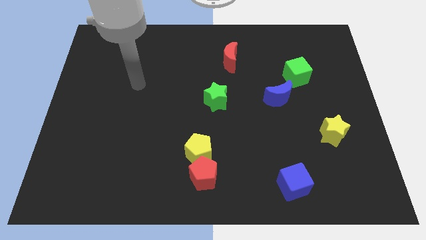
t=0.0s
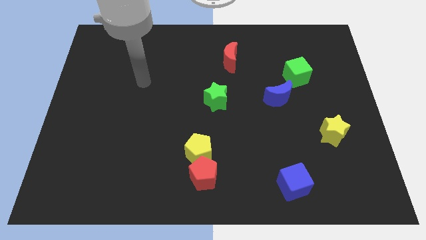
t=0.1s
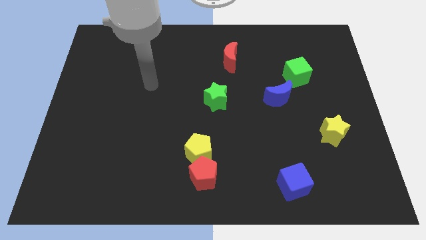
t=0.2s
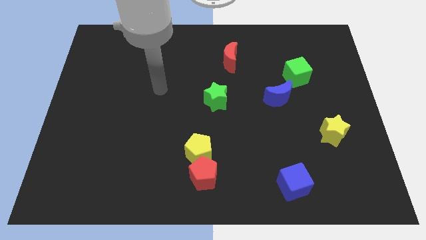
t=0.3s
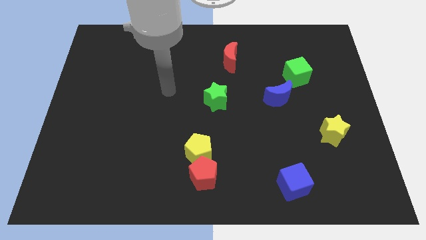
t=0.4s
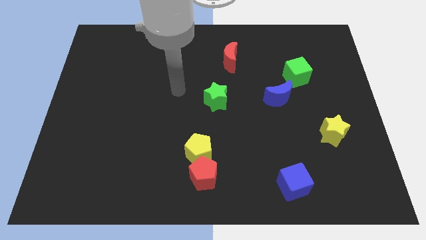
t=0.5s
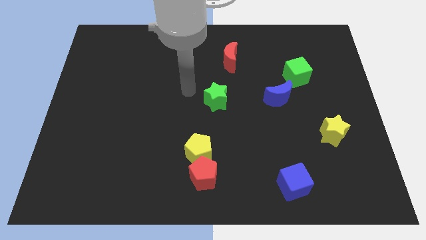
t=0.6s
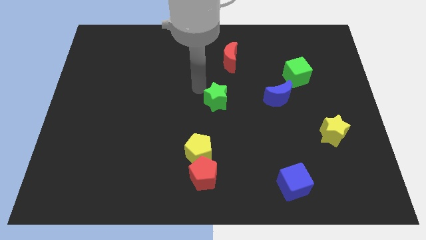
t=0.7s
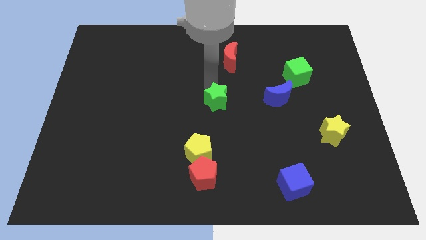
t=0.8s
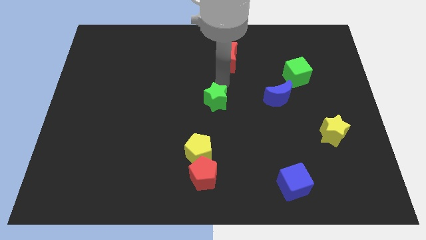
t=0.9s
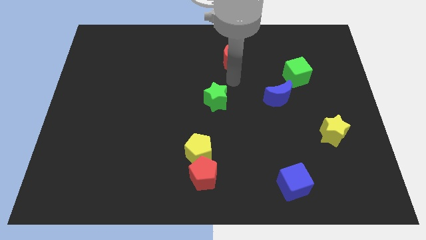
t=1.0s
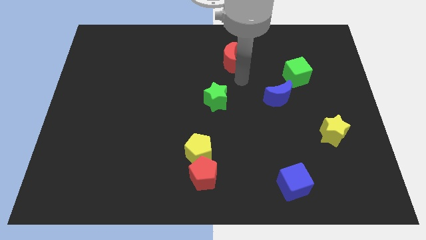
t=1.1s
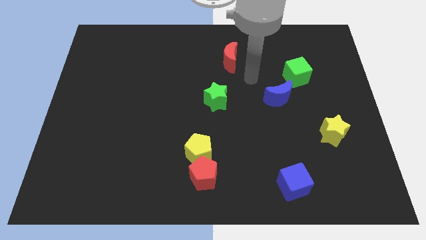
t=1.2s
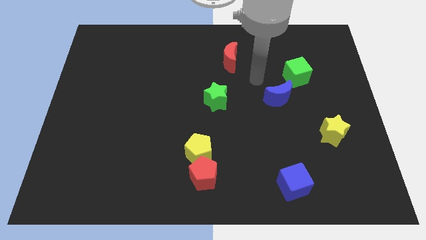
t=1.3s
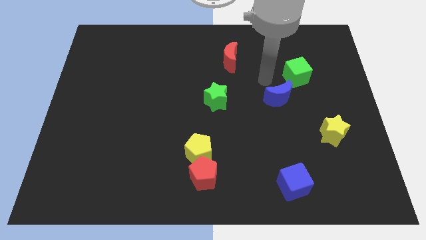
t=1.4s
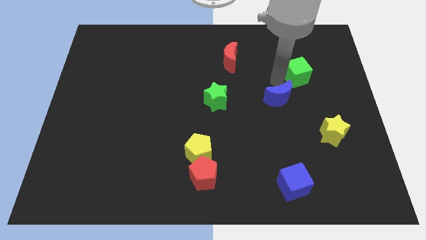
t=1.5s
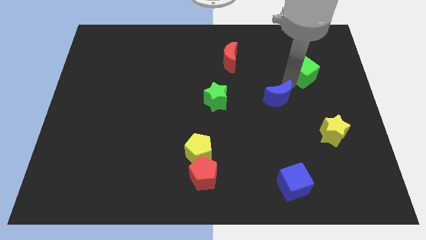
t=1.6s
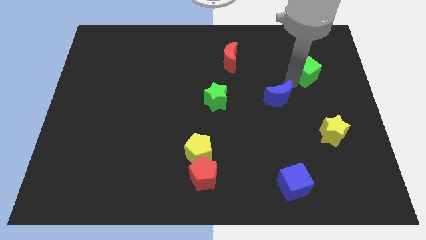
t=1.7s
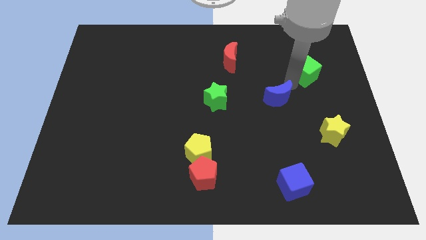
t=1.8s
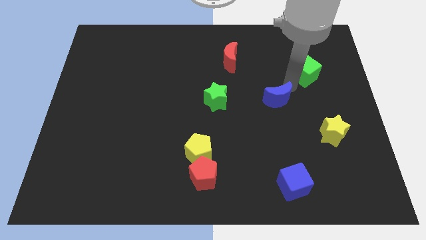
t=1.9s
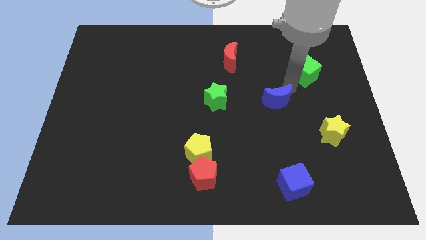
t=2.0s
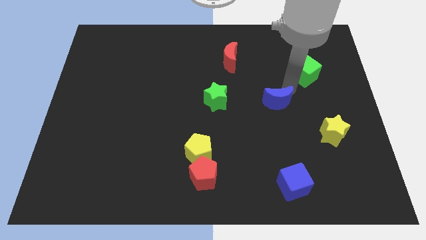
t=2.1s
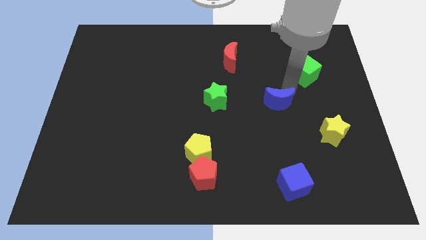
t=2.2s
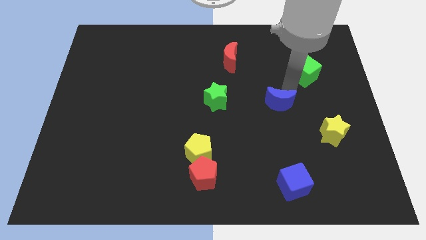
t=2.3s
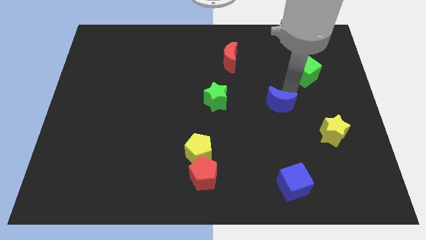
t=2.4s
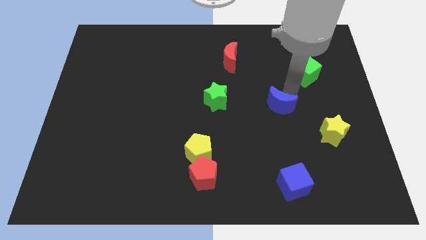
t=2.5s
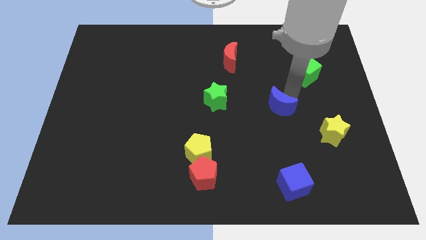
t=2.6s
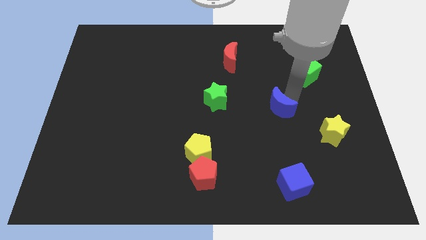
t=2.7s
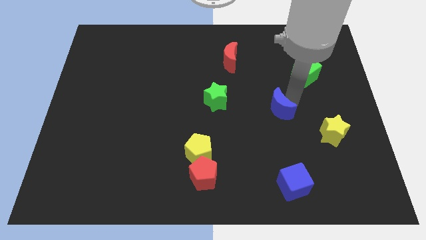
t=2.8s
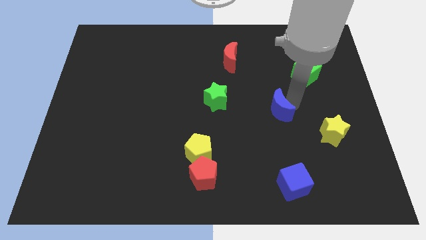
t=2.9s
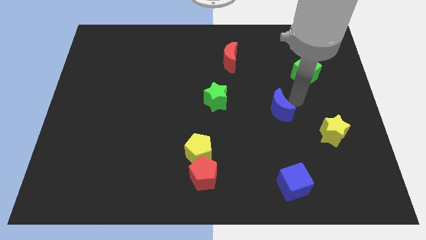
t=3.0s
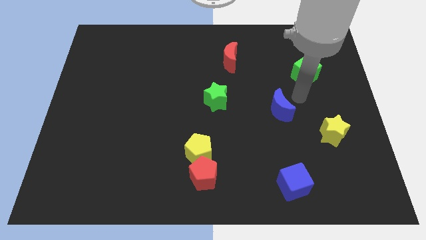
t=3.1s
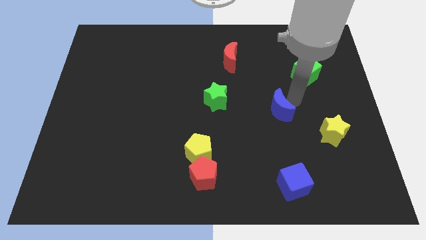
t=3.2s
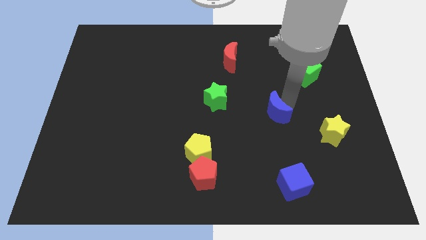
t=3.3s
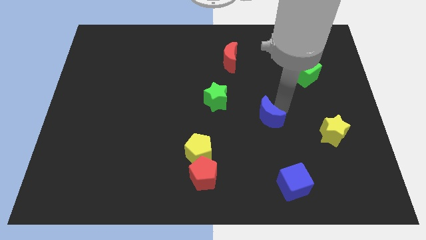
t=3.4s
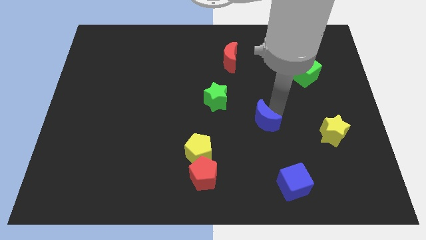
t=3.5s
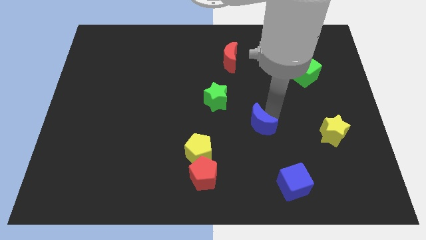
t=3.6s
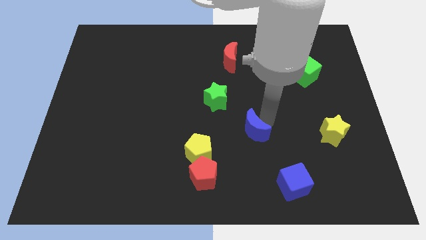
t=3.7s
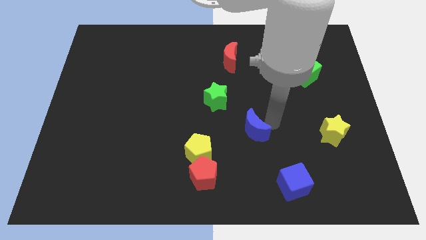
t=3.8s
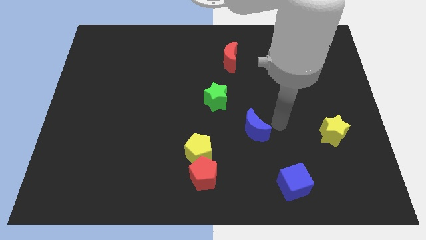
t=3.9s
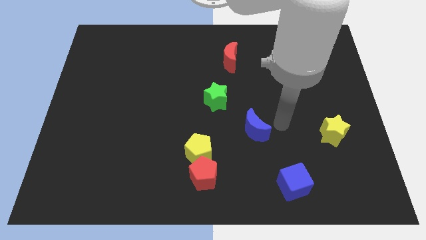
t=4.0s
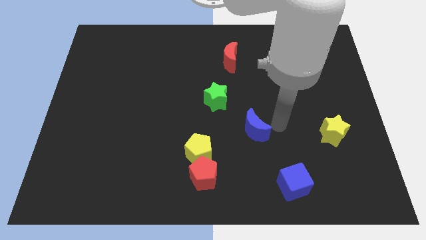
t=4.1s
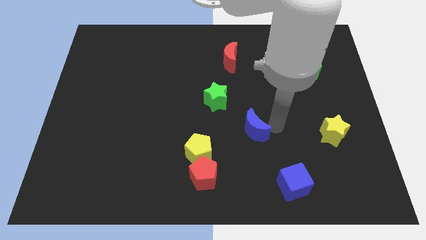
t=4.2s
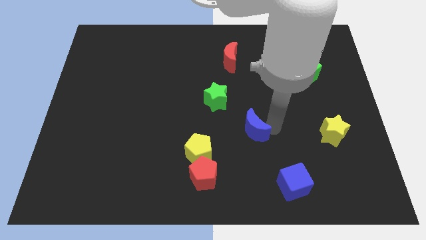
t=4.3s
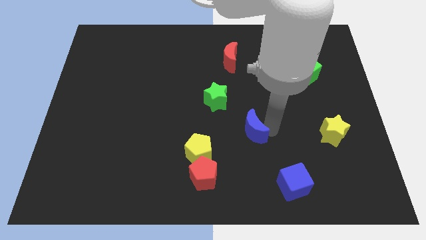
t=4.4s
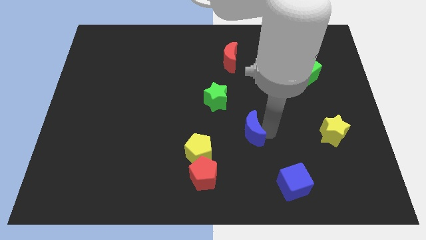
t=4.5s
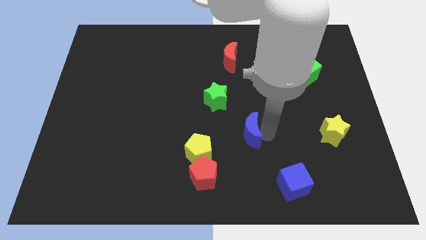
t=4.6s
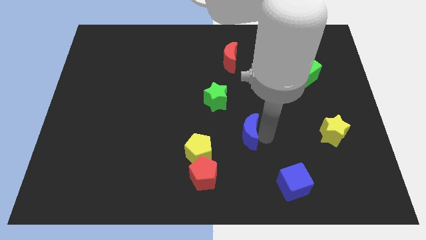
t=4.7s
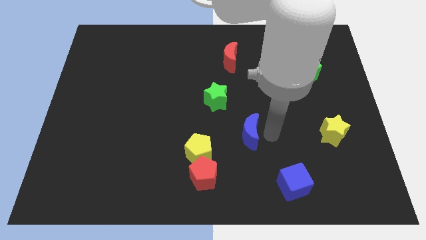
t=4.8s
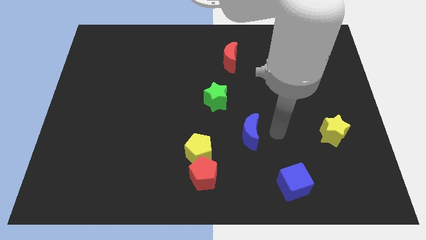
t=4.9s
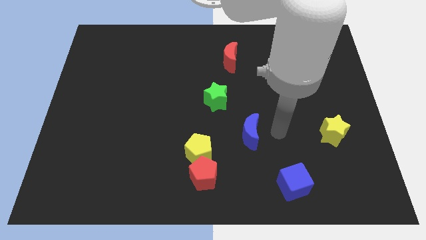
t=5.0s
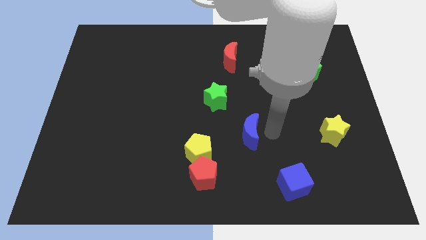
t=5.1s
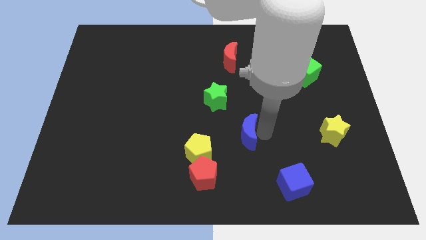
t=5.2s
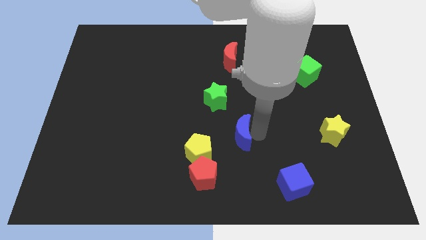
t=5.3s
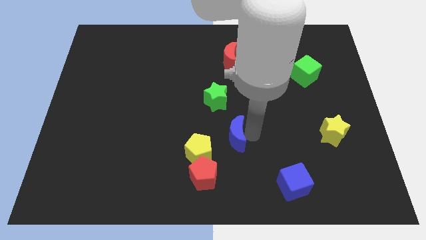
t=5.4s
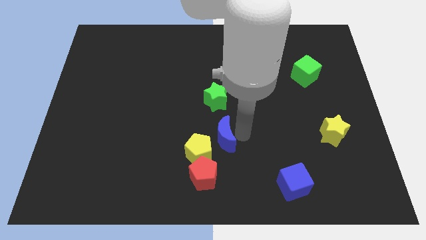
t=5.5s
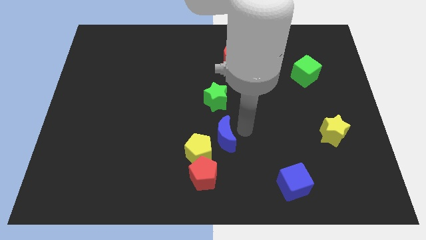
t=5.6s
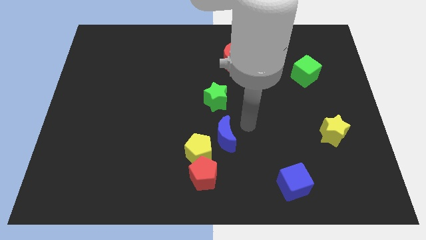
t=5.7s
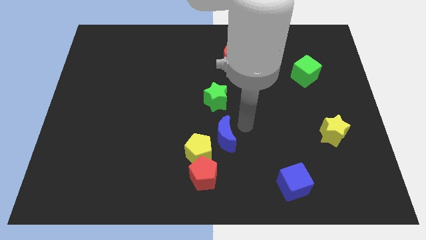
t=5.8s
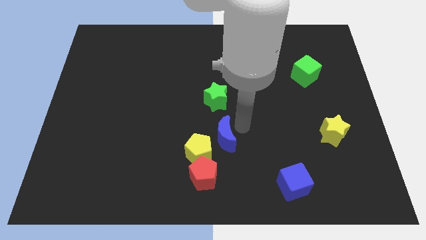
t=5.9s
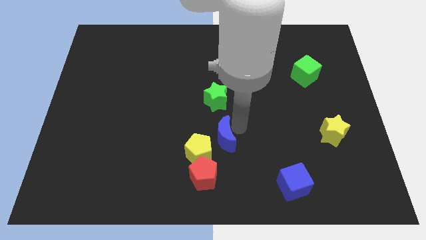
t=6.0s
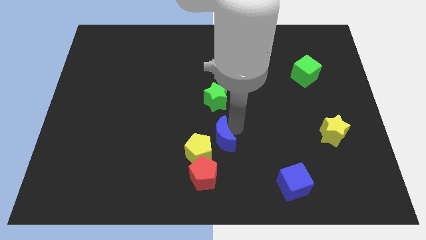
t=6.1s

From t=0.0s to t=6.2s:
move the blue moon towards the yellow pentagon

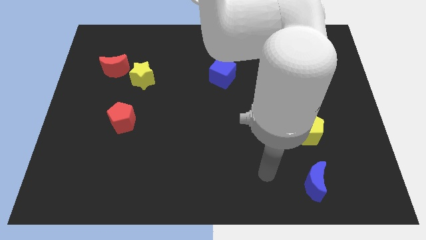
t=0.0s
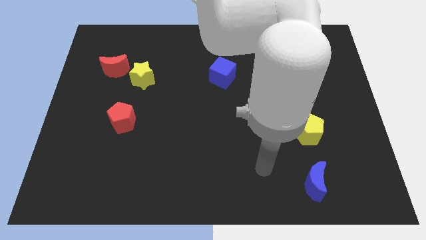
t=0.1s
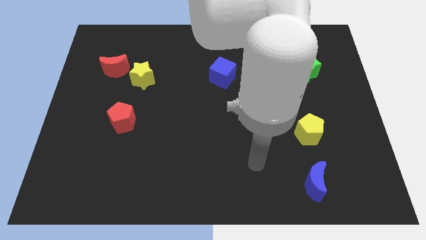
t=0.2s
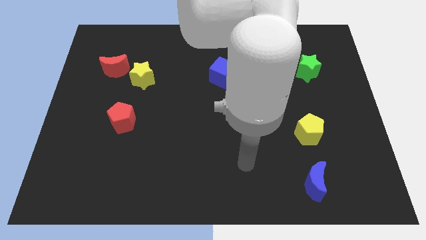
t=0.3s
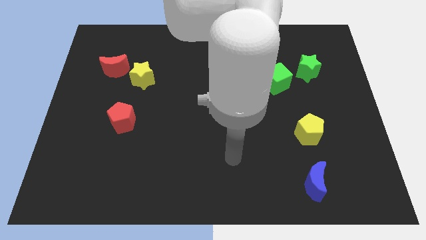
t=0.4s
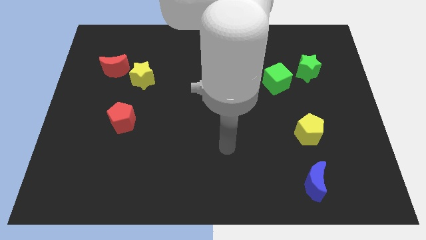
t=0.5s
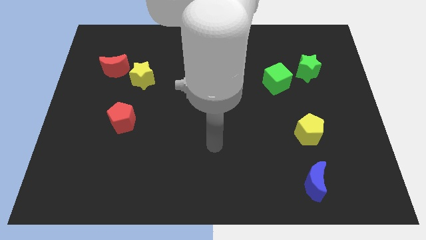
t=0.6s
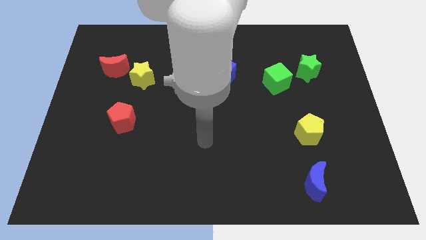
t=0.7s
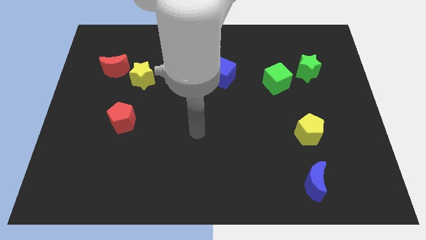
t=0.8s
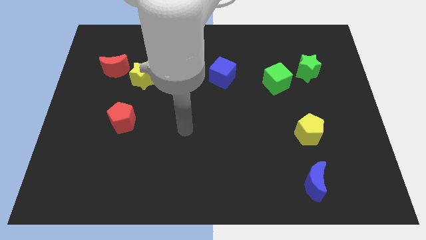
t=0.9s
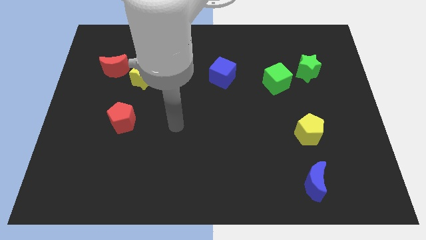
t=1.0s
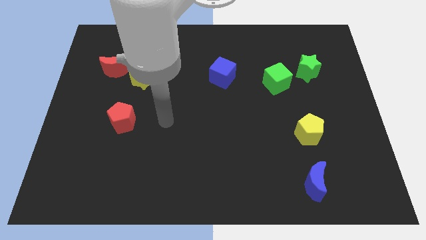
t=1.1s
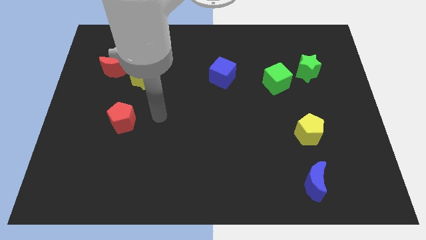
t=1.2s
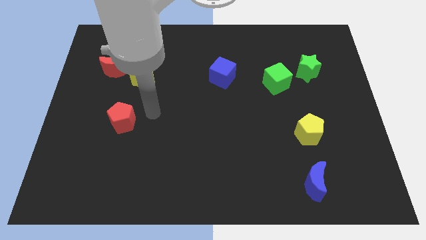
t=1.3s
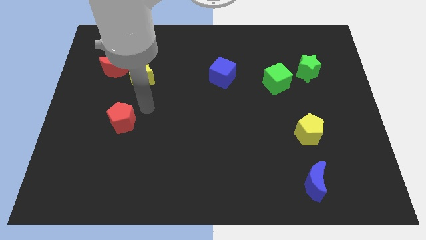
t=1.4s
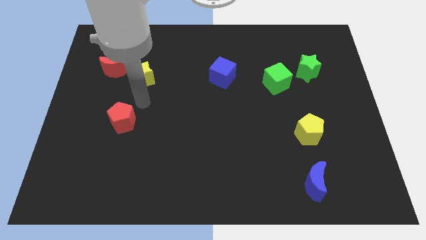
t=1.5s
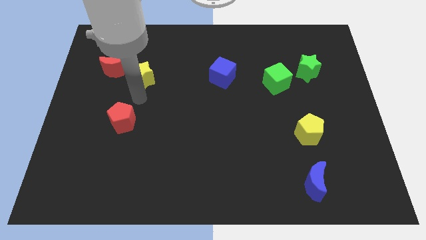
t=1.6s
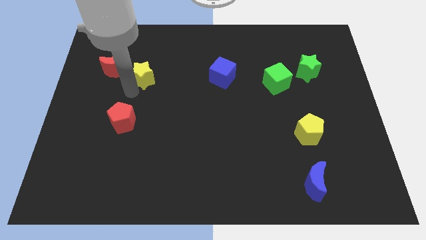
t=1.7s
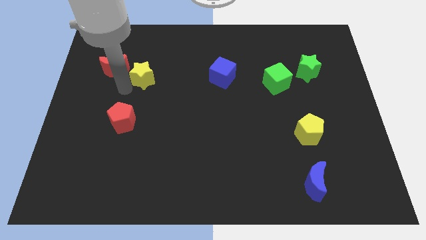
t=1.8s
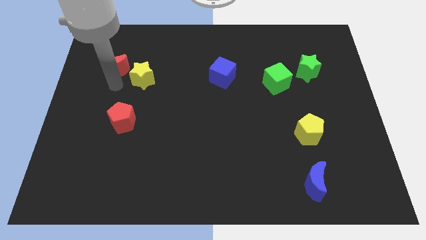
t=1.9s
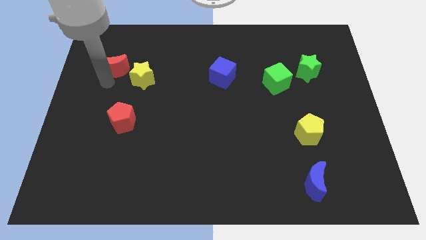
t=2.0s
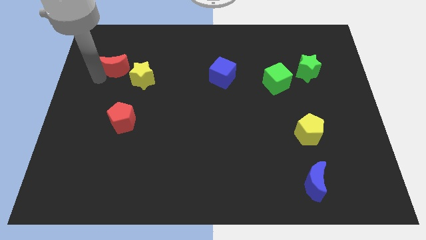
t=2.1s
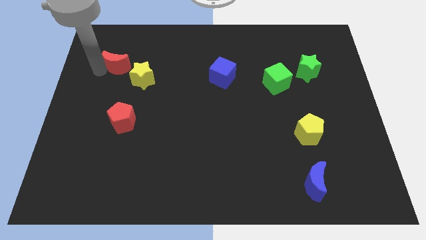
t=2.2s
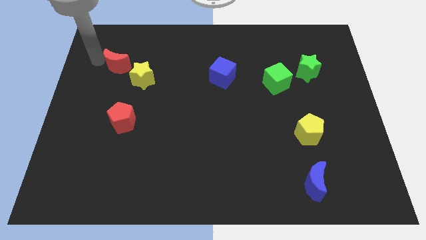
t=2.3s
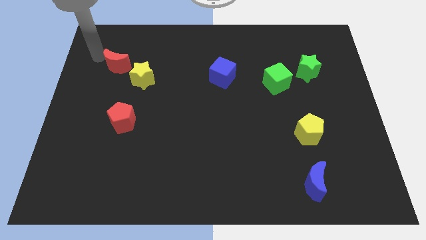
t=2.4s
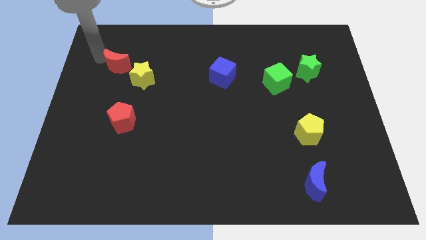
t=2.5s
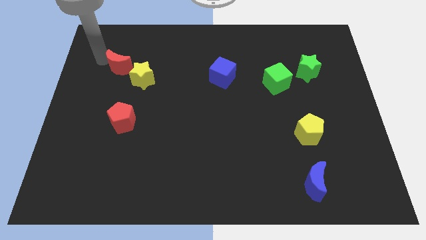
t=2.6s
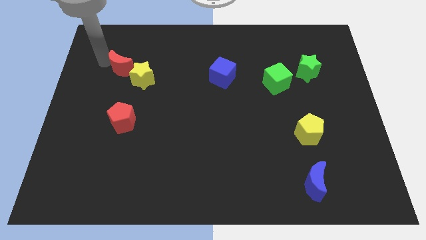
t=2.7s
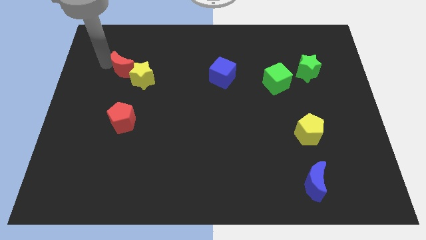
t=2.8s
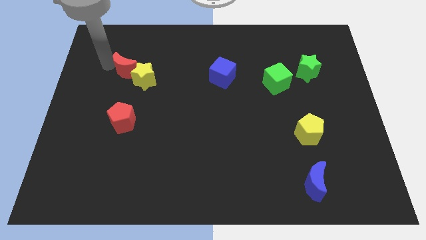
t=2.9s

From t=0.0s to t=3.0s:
push the red moon to the yellow star
